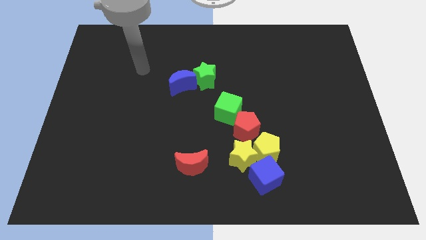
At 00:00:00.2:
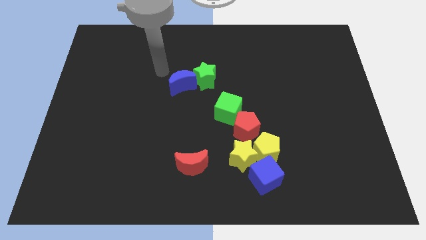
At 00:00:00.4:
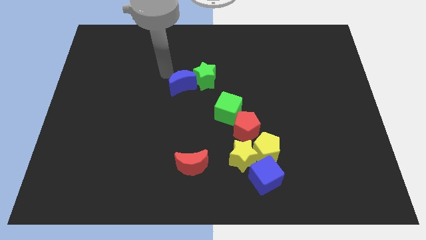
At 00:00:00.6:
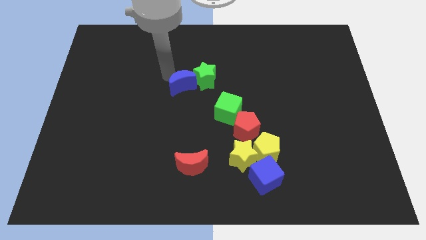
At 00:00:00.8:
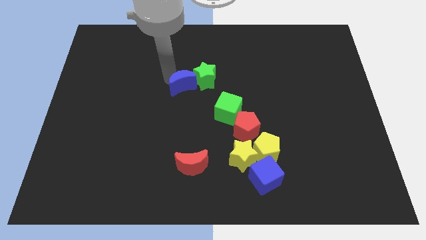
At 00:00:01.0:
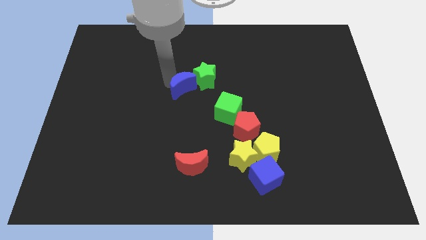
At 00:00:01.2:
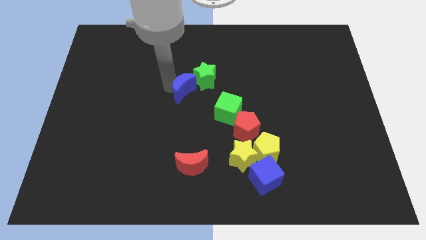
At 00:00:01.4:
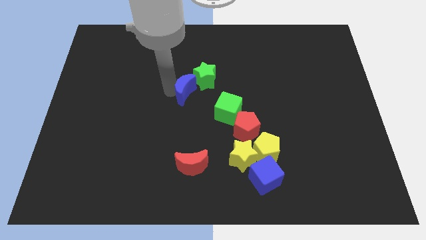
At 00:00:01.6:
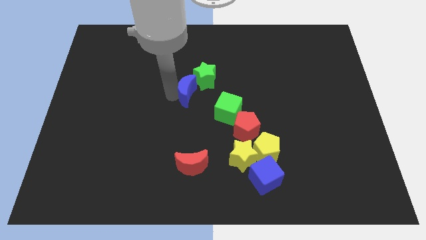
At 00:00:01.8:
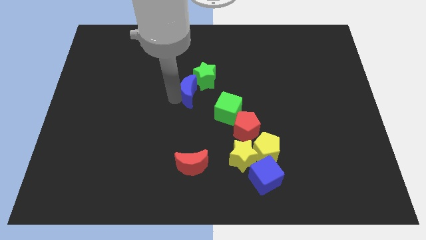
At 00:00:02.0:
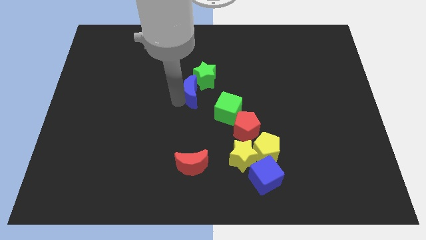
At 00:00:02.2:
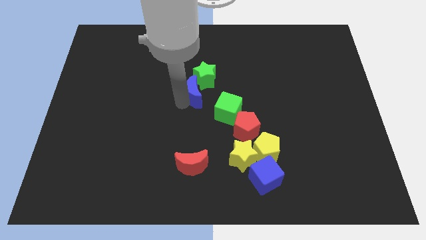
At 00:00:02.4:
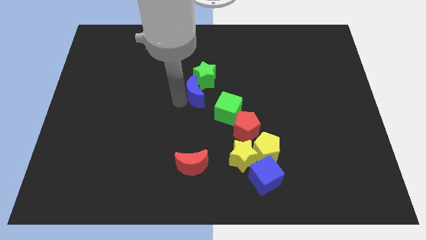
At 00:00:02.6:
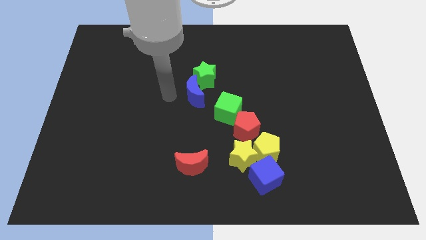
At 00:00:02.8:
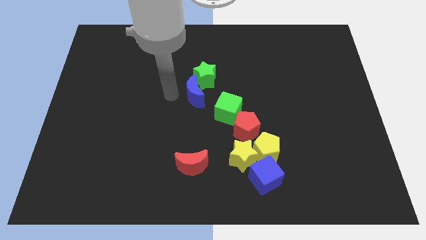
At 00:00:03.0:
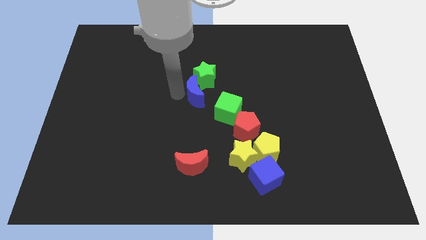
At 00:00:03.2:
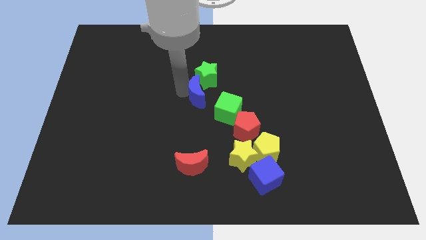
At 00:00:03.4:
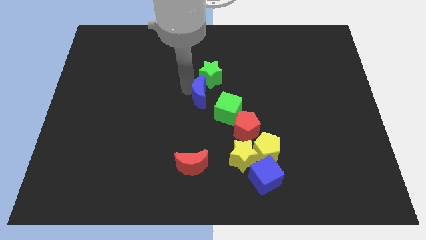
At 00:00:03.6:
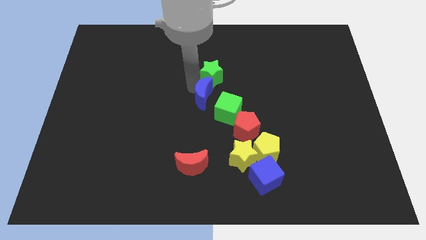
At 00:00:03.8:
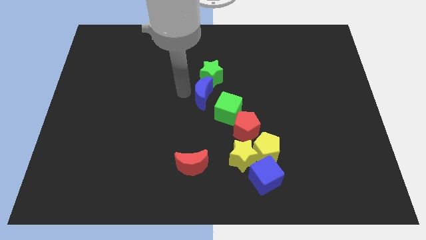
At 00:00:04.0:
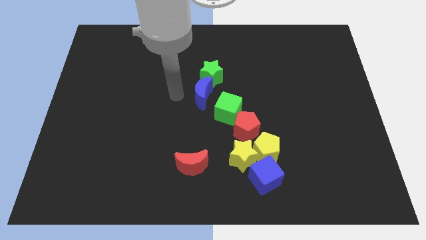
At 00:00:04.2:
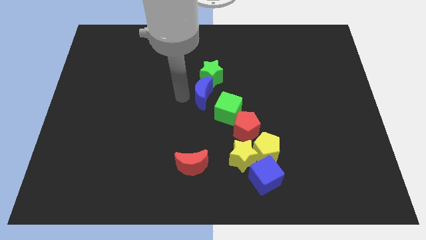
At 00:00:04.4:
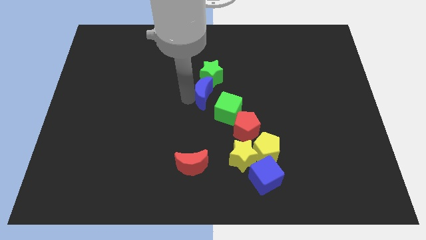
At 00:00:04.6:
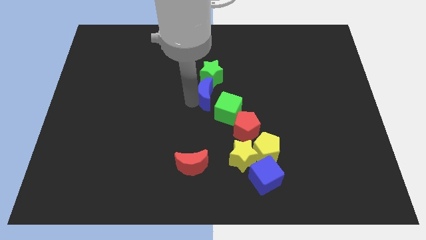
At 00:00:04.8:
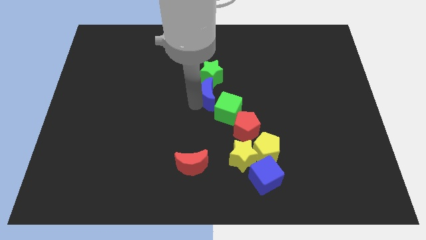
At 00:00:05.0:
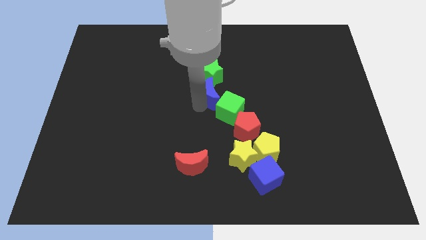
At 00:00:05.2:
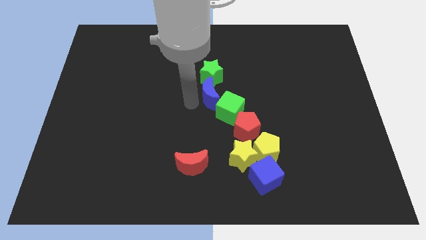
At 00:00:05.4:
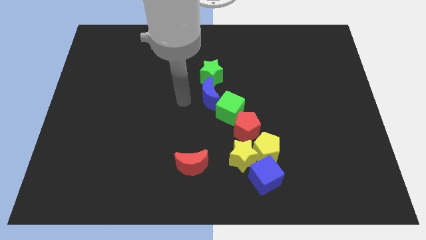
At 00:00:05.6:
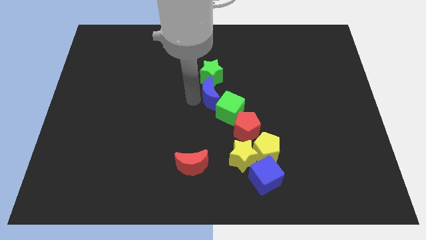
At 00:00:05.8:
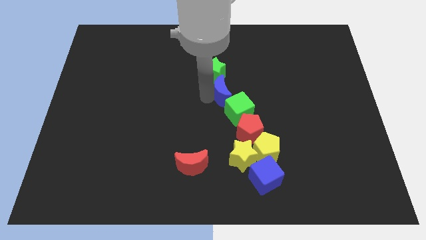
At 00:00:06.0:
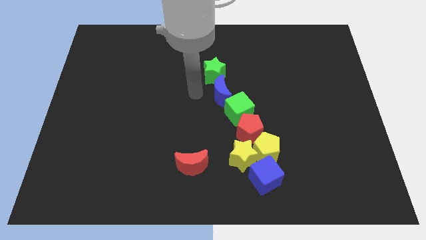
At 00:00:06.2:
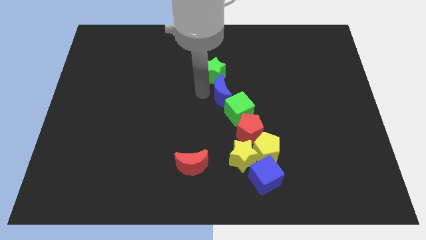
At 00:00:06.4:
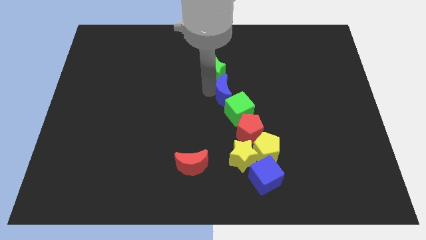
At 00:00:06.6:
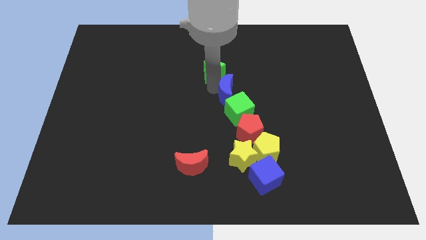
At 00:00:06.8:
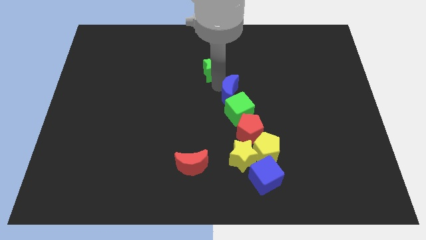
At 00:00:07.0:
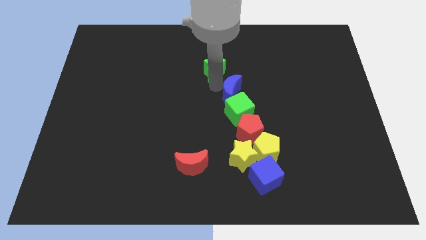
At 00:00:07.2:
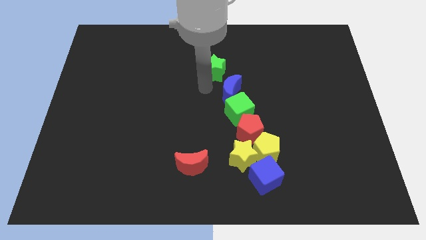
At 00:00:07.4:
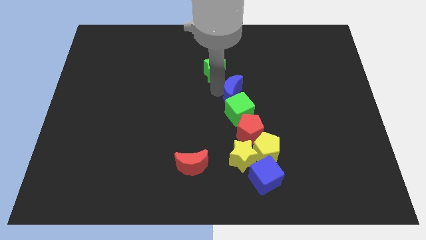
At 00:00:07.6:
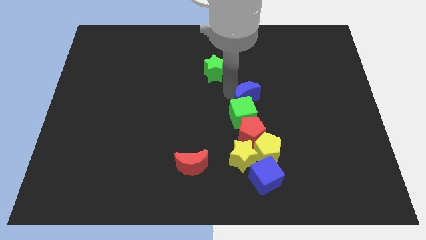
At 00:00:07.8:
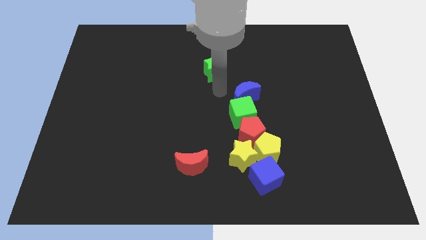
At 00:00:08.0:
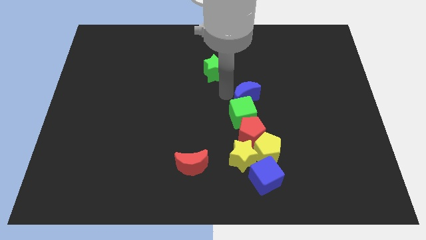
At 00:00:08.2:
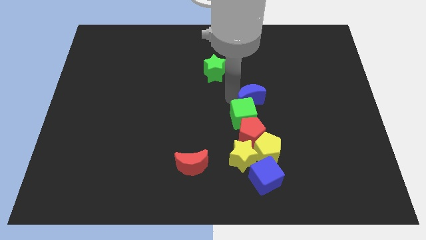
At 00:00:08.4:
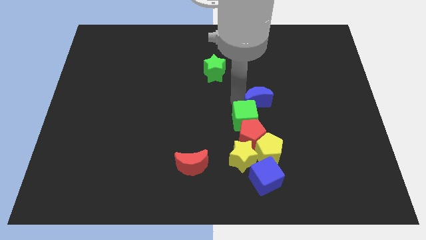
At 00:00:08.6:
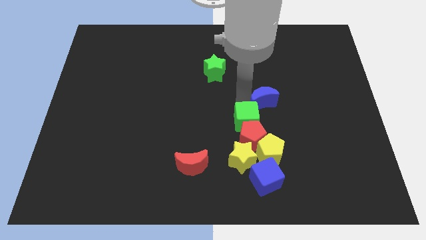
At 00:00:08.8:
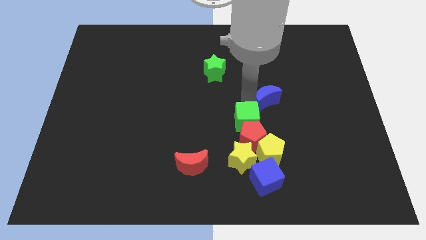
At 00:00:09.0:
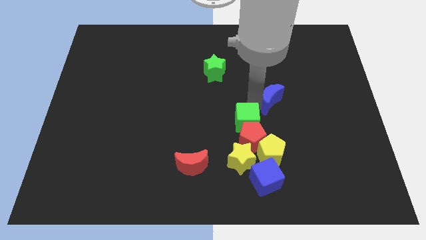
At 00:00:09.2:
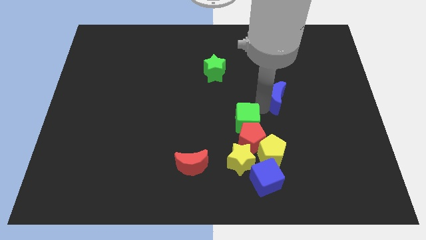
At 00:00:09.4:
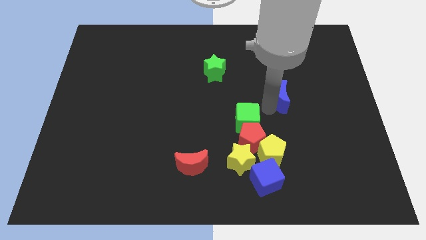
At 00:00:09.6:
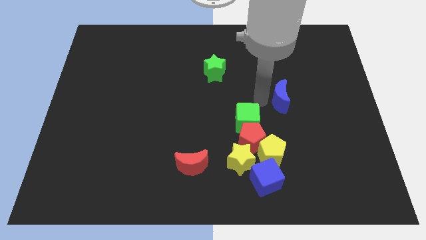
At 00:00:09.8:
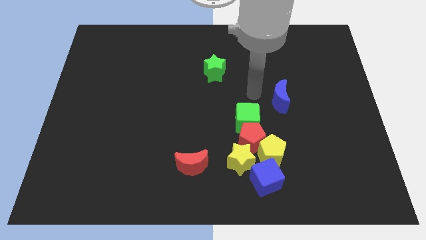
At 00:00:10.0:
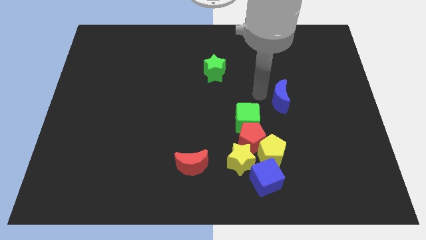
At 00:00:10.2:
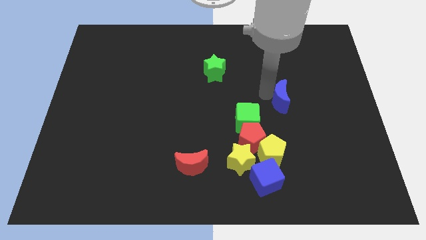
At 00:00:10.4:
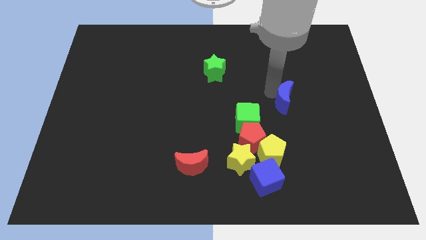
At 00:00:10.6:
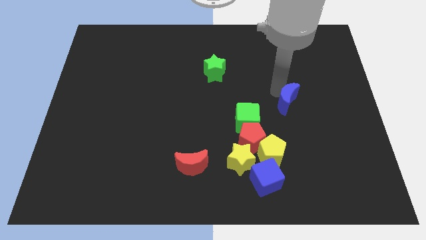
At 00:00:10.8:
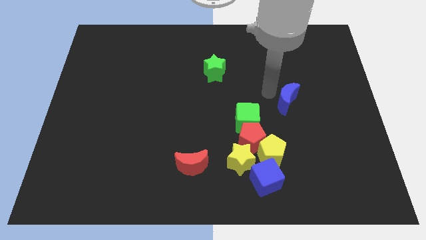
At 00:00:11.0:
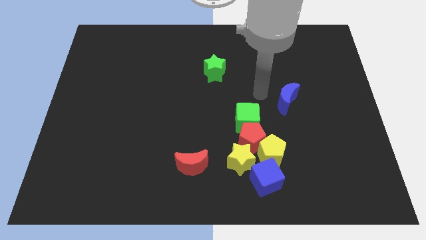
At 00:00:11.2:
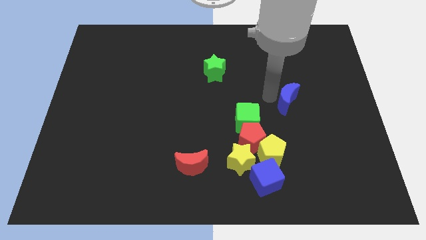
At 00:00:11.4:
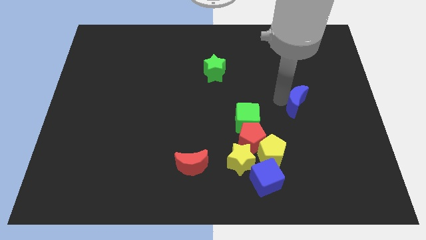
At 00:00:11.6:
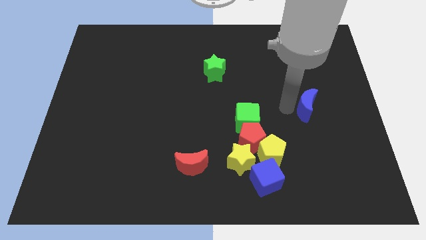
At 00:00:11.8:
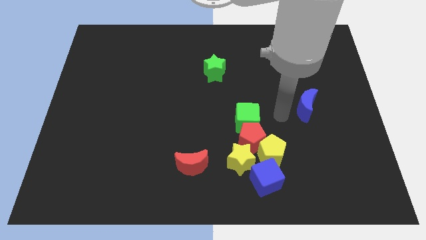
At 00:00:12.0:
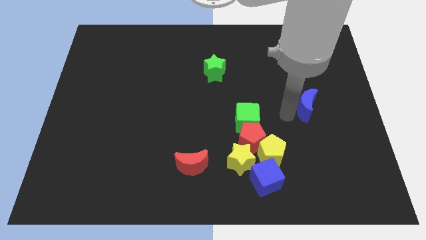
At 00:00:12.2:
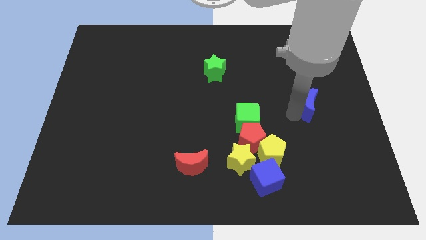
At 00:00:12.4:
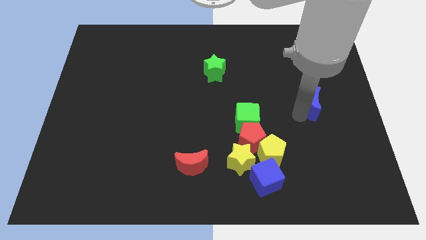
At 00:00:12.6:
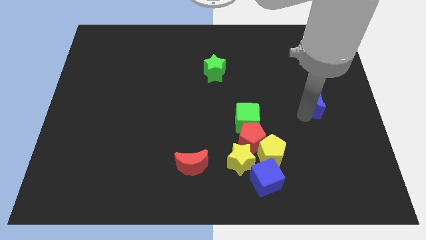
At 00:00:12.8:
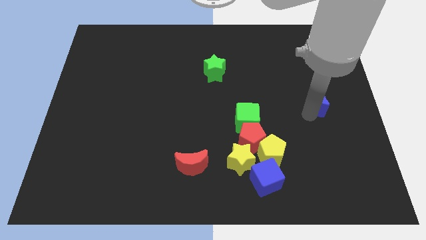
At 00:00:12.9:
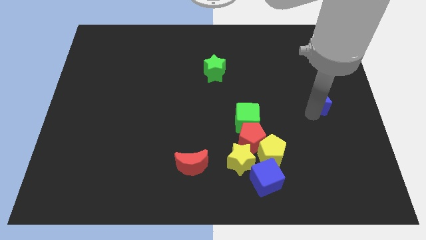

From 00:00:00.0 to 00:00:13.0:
move the blue moon to the right side

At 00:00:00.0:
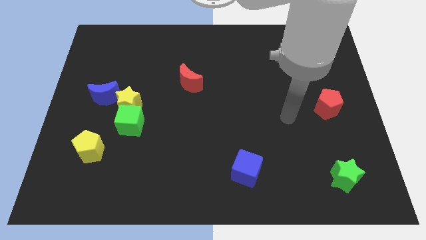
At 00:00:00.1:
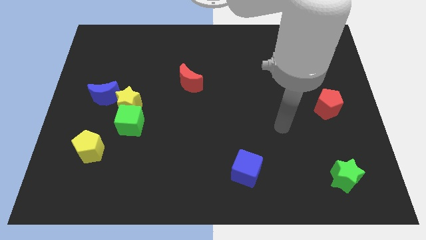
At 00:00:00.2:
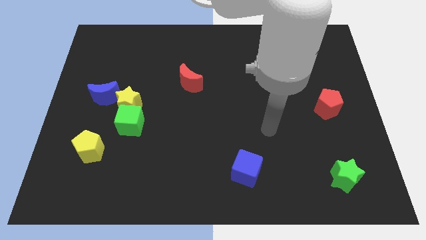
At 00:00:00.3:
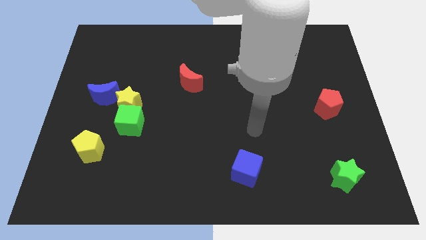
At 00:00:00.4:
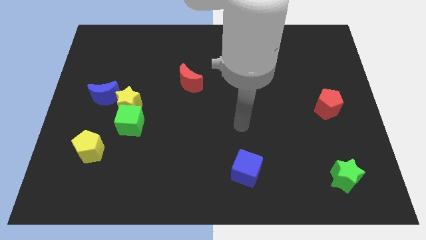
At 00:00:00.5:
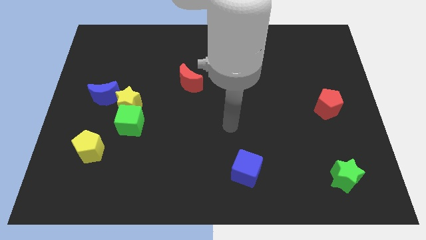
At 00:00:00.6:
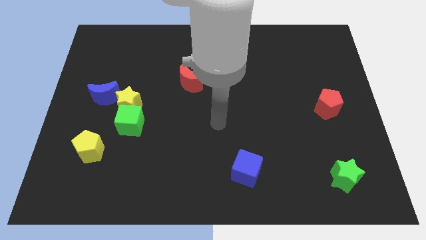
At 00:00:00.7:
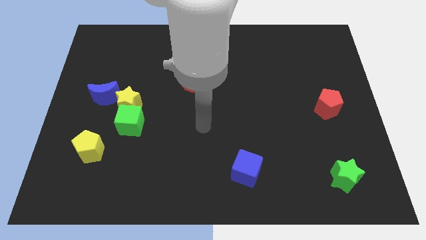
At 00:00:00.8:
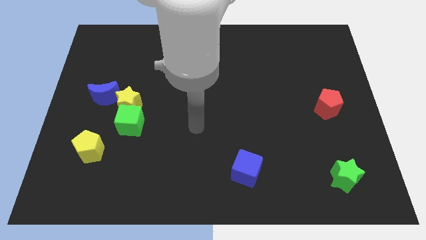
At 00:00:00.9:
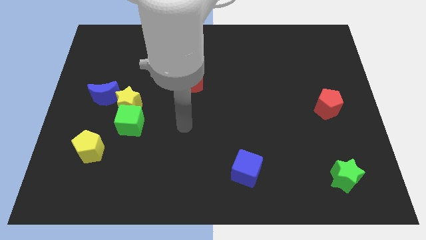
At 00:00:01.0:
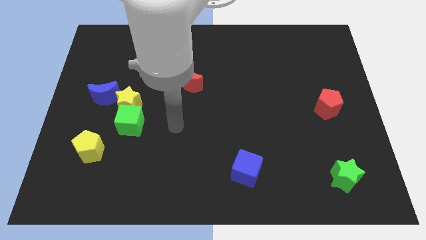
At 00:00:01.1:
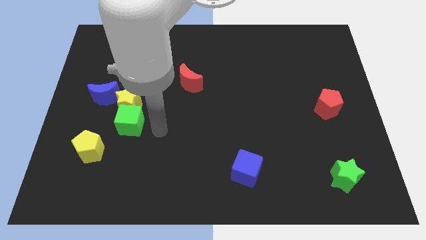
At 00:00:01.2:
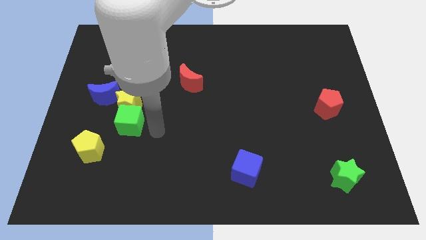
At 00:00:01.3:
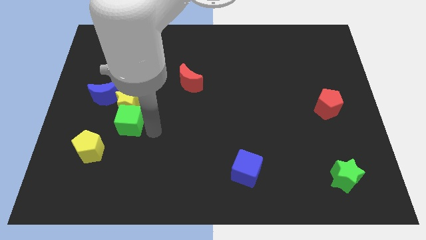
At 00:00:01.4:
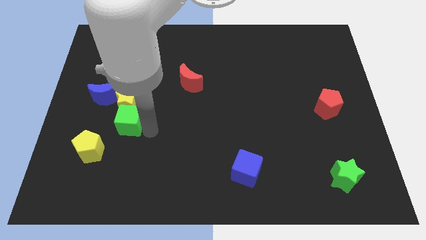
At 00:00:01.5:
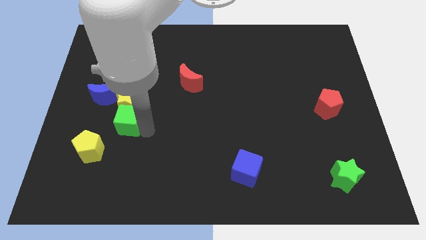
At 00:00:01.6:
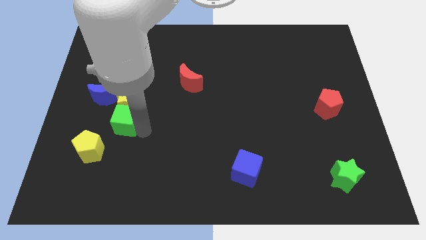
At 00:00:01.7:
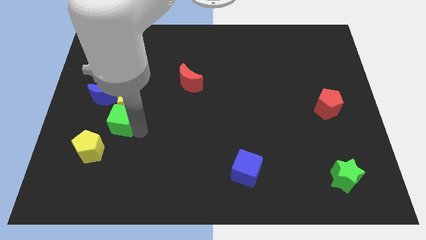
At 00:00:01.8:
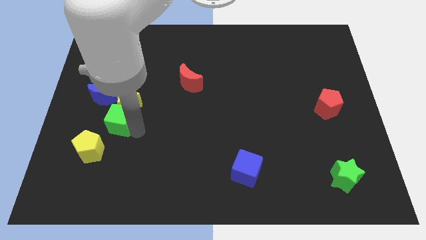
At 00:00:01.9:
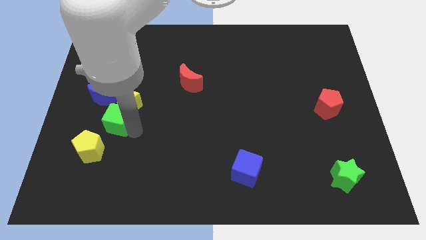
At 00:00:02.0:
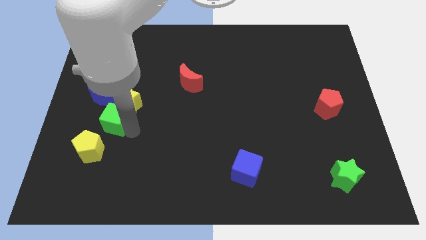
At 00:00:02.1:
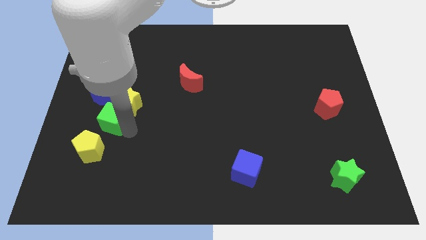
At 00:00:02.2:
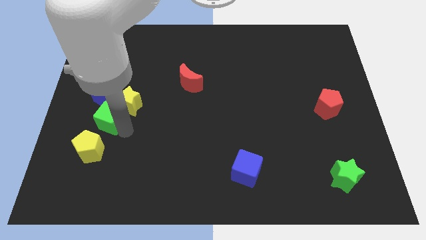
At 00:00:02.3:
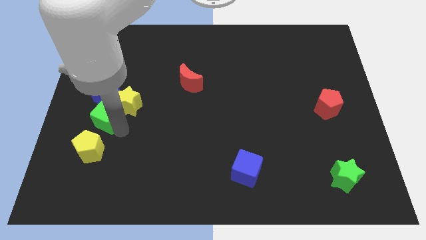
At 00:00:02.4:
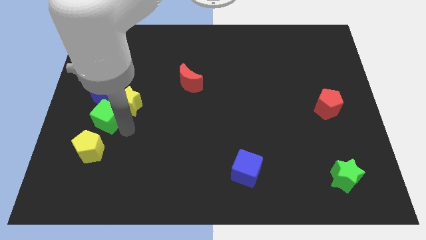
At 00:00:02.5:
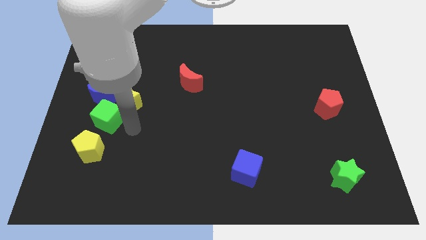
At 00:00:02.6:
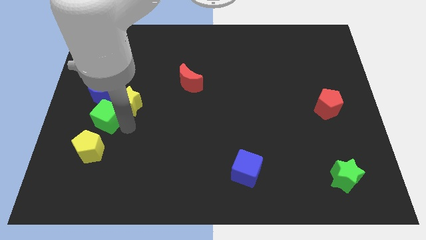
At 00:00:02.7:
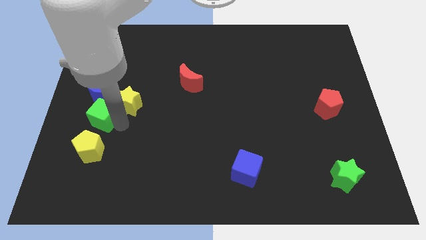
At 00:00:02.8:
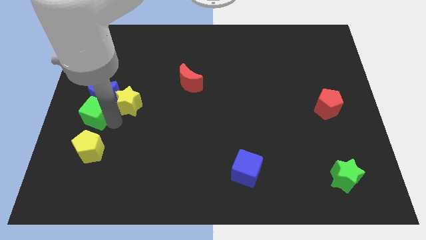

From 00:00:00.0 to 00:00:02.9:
move the green cube to the left side of the board
